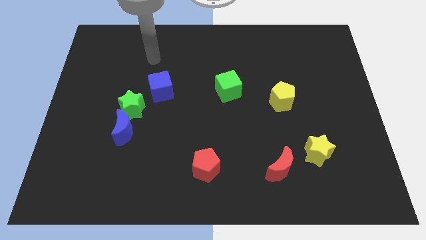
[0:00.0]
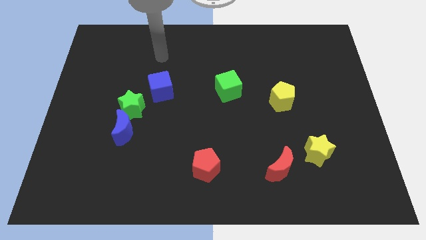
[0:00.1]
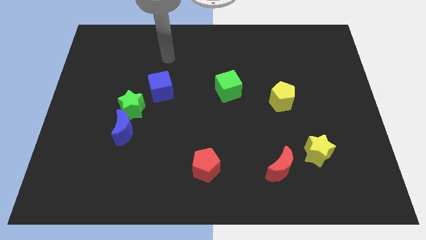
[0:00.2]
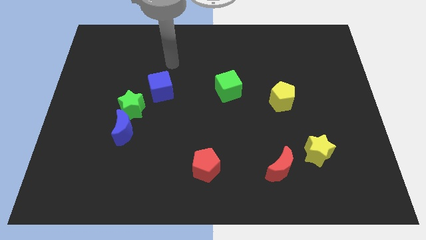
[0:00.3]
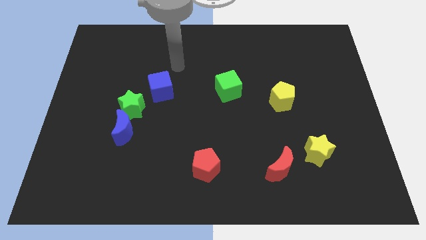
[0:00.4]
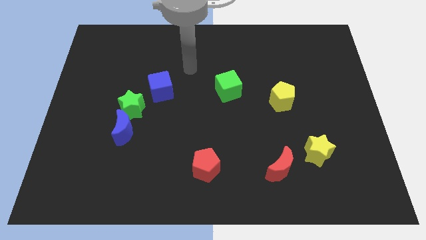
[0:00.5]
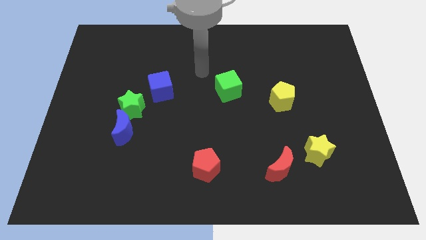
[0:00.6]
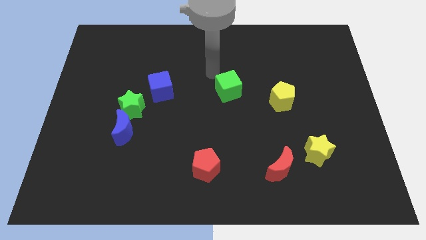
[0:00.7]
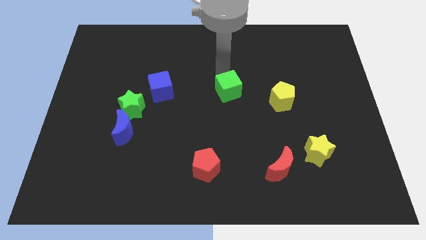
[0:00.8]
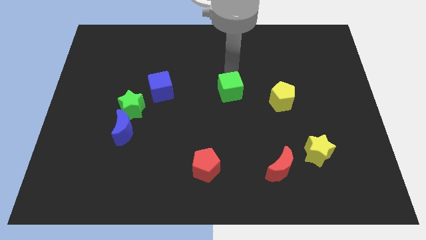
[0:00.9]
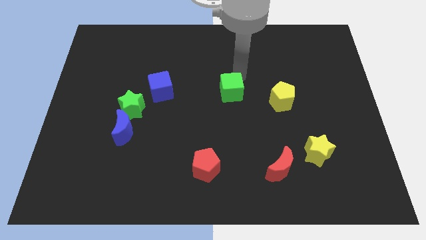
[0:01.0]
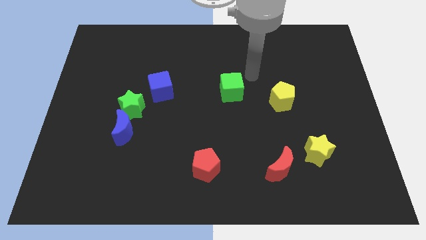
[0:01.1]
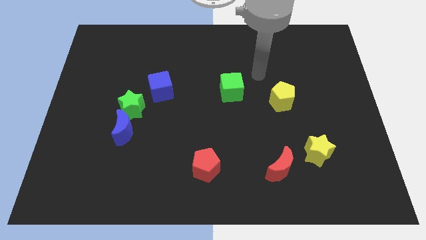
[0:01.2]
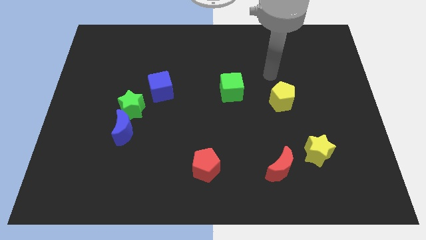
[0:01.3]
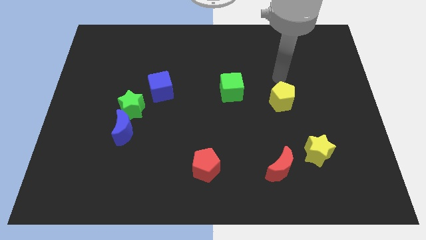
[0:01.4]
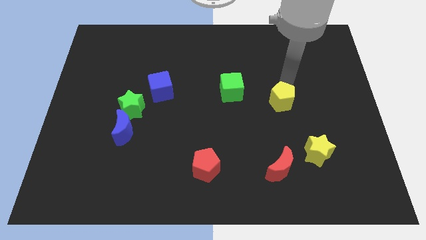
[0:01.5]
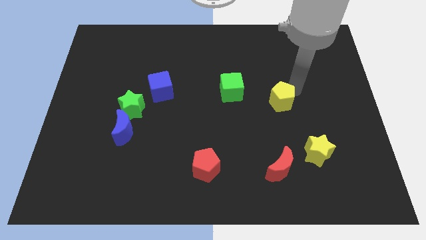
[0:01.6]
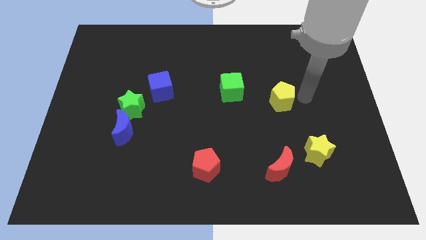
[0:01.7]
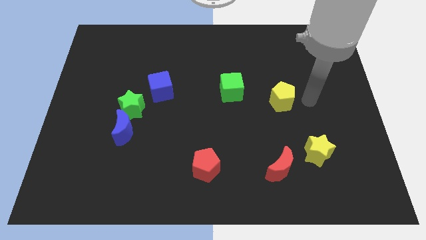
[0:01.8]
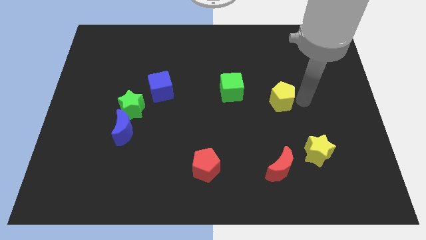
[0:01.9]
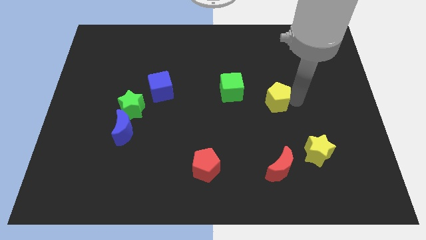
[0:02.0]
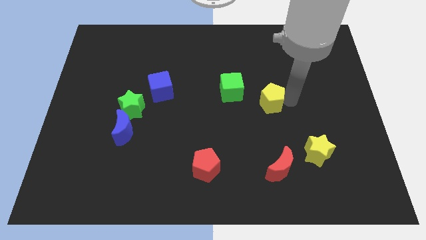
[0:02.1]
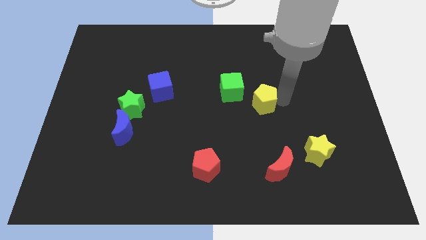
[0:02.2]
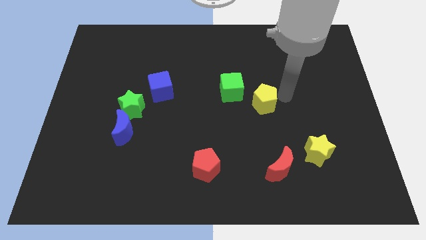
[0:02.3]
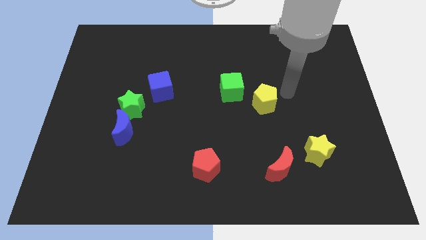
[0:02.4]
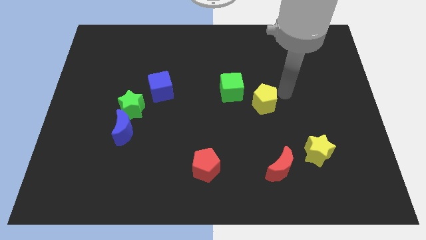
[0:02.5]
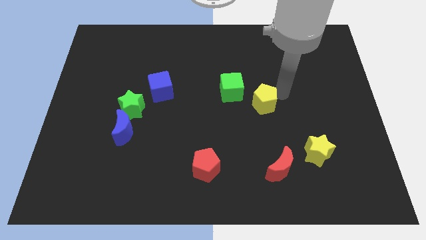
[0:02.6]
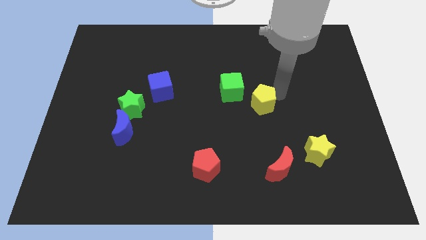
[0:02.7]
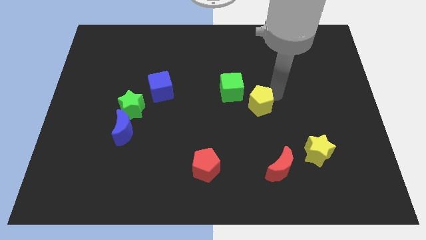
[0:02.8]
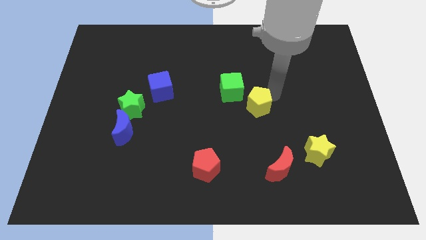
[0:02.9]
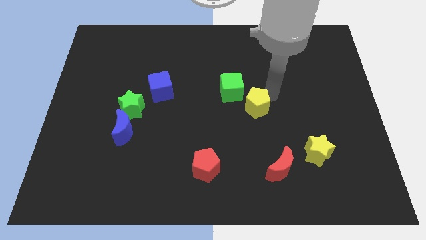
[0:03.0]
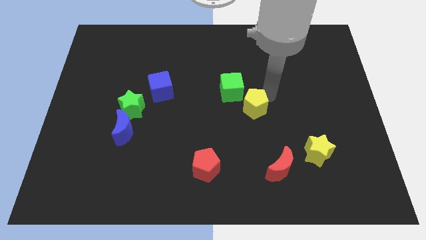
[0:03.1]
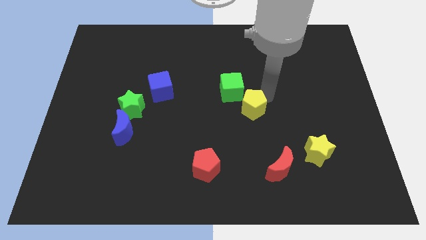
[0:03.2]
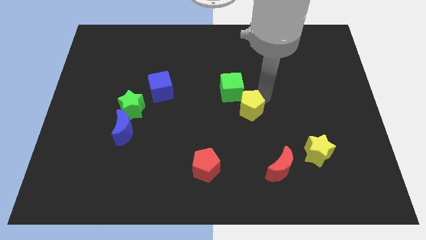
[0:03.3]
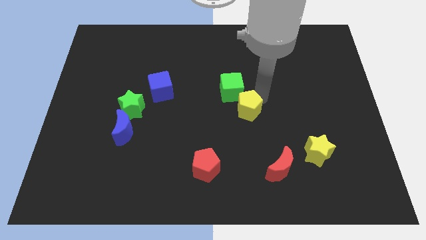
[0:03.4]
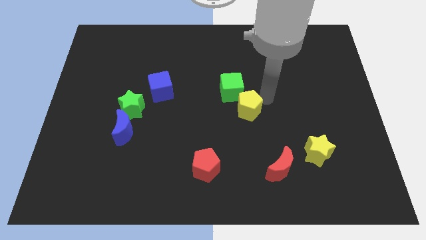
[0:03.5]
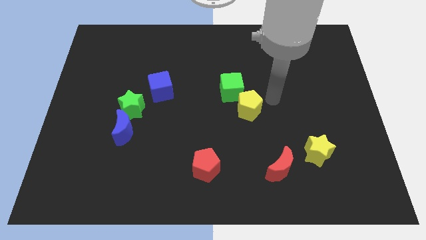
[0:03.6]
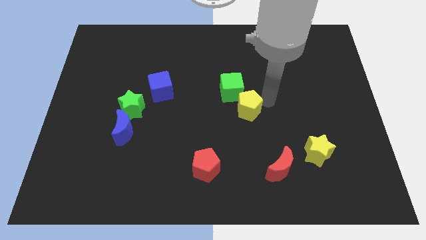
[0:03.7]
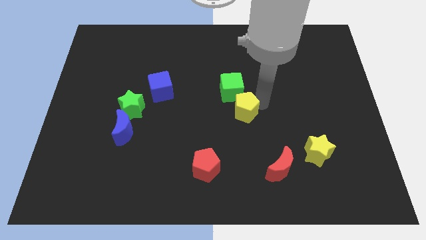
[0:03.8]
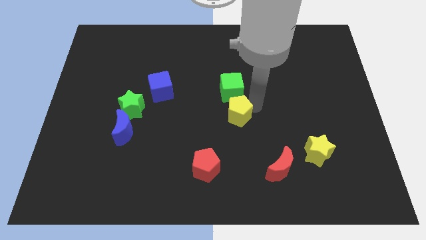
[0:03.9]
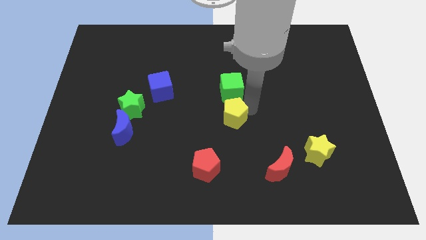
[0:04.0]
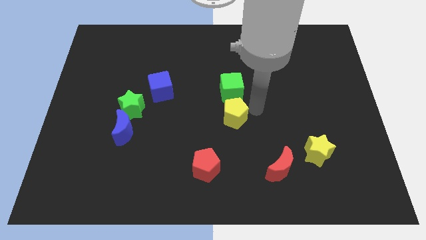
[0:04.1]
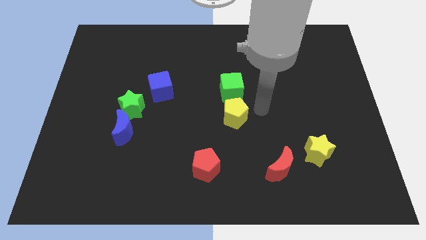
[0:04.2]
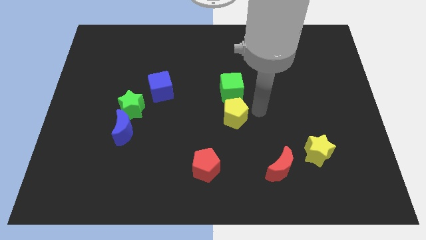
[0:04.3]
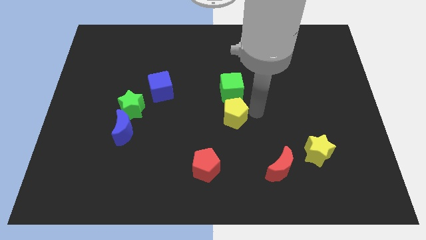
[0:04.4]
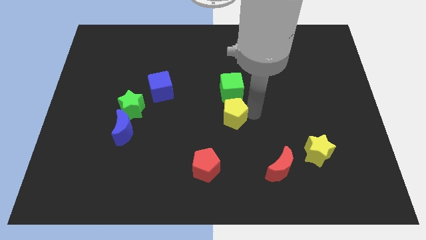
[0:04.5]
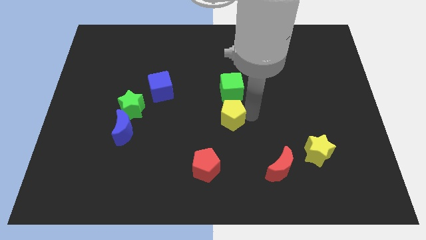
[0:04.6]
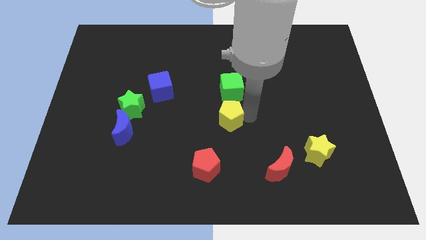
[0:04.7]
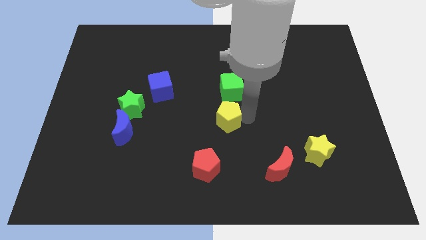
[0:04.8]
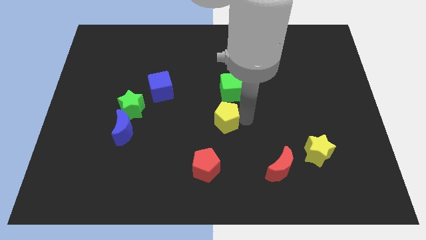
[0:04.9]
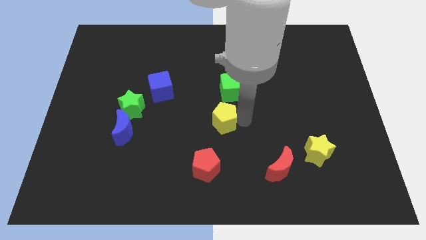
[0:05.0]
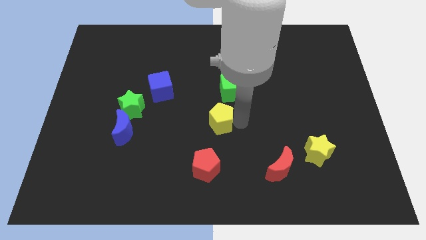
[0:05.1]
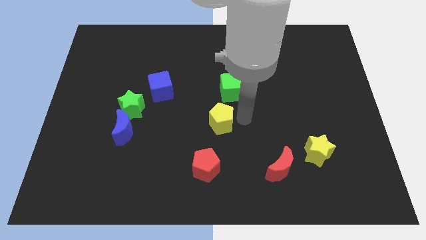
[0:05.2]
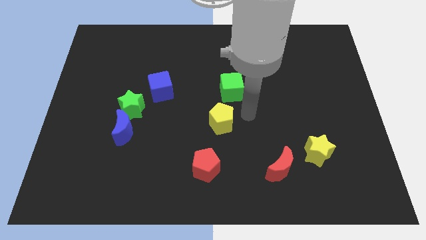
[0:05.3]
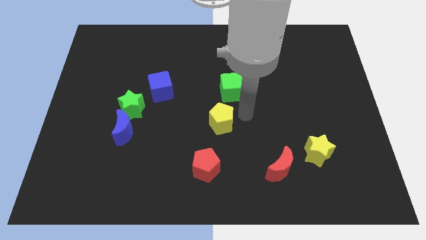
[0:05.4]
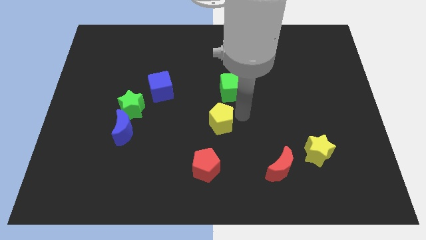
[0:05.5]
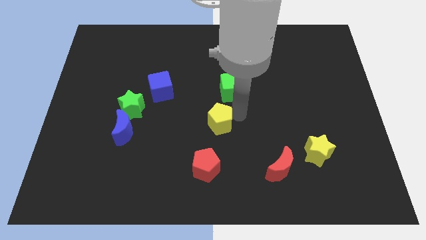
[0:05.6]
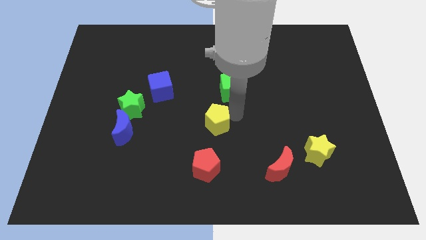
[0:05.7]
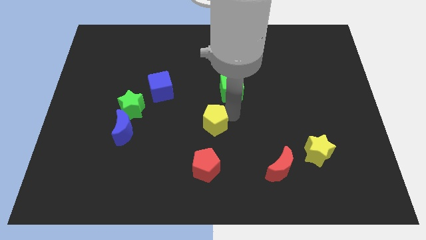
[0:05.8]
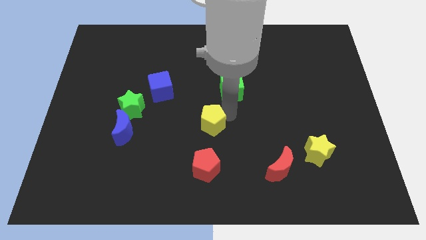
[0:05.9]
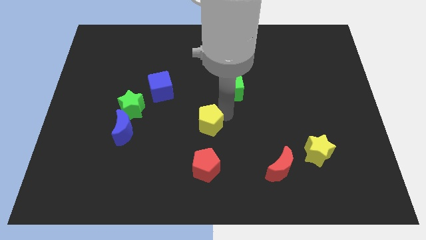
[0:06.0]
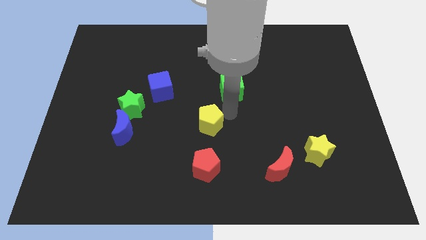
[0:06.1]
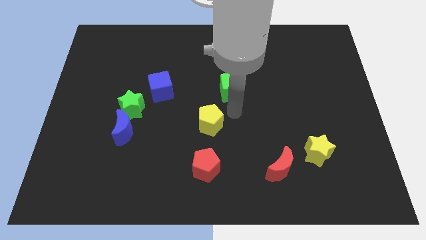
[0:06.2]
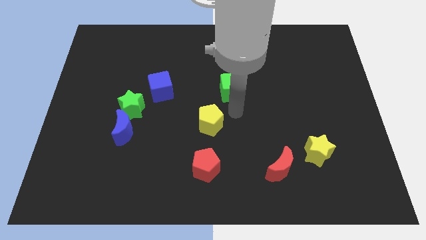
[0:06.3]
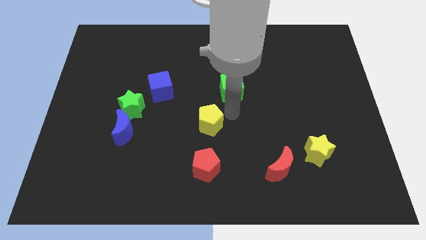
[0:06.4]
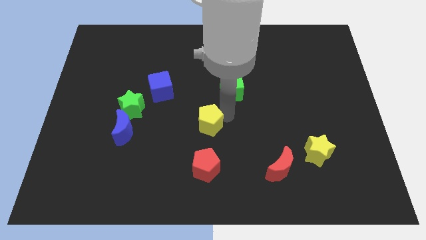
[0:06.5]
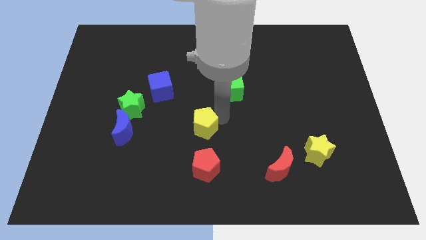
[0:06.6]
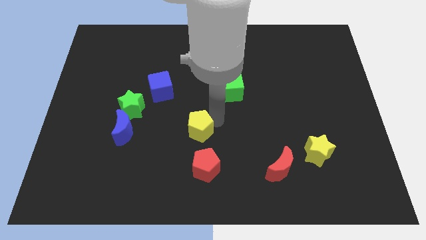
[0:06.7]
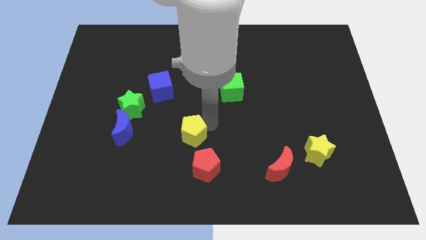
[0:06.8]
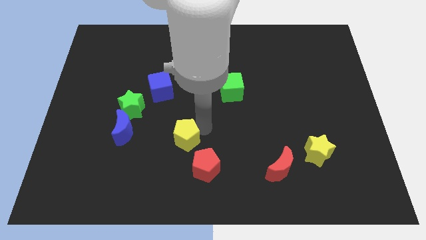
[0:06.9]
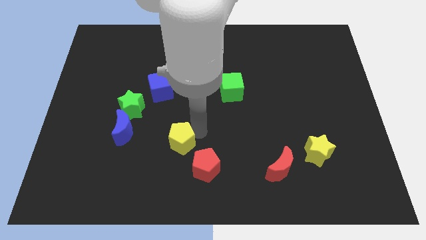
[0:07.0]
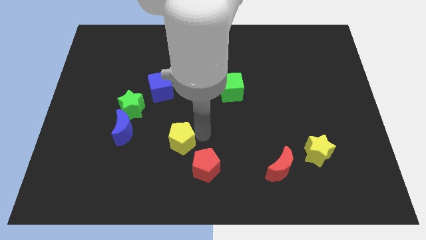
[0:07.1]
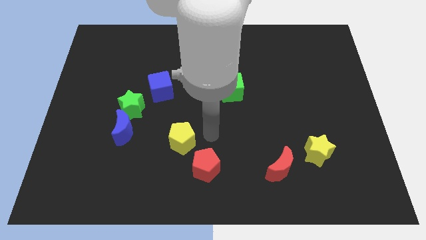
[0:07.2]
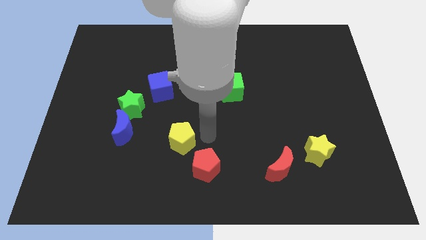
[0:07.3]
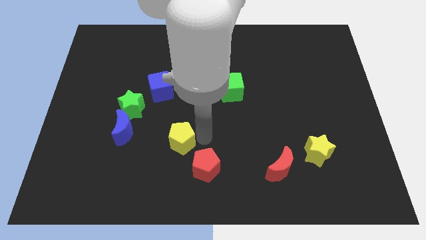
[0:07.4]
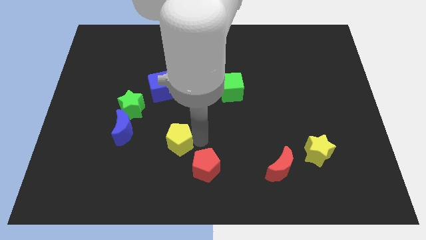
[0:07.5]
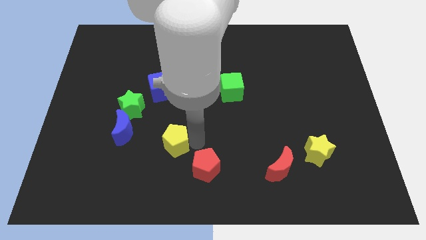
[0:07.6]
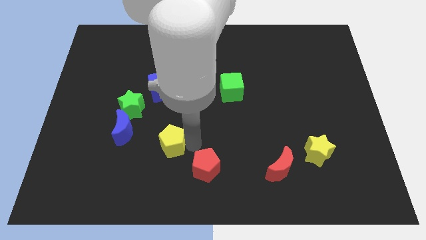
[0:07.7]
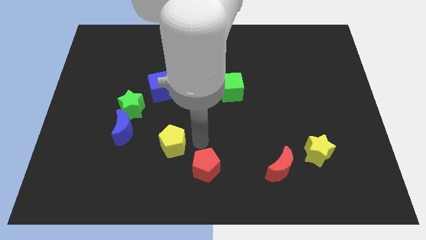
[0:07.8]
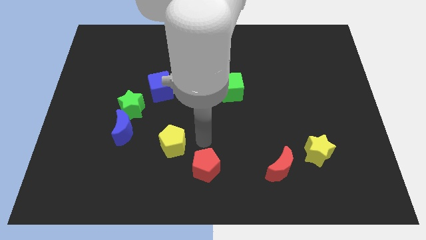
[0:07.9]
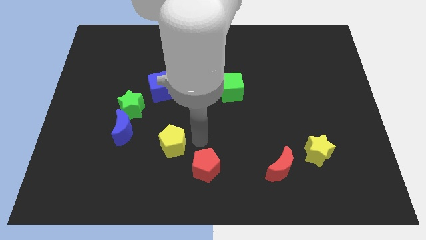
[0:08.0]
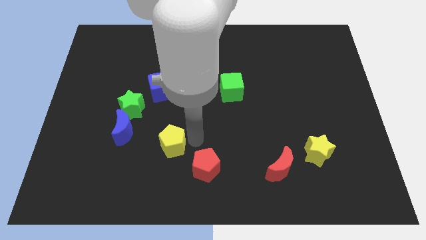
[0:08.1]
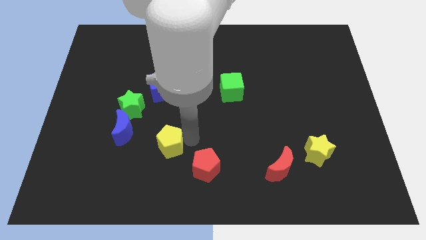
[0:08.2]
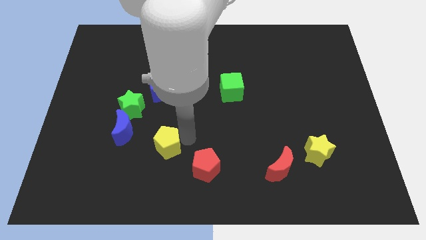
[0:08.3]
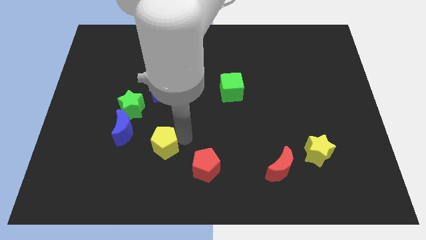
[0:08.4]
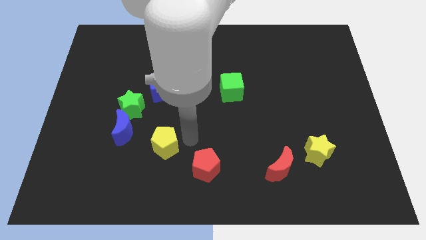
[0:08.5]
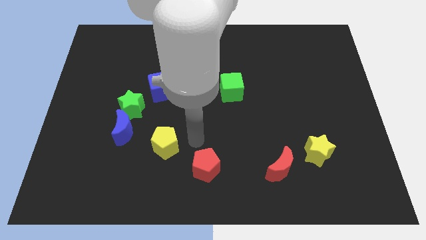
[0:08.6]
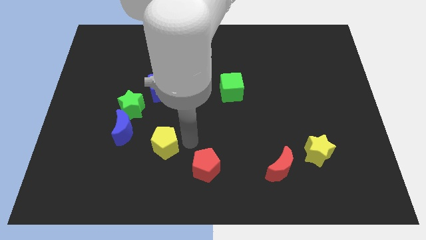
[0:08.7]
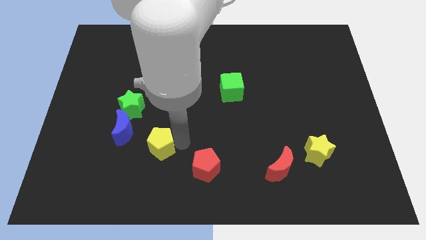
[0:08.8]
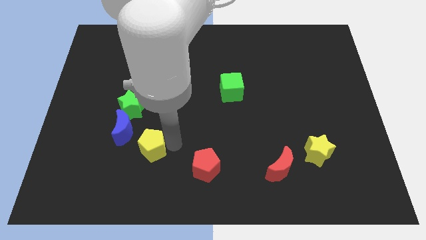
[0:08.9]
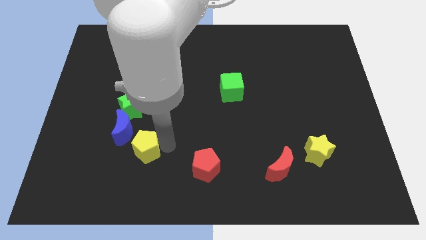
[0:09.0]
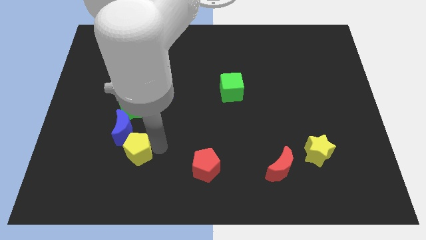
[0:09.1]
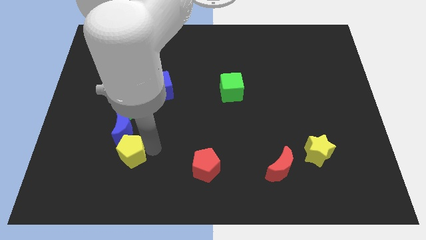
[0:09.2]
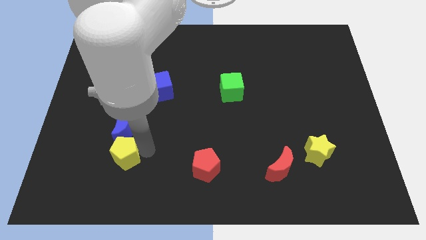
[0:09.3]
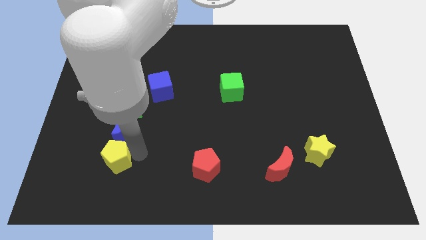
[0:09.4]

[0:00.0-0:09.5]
push the yellow pentagon to the bottom left side of the blue moon
